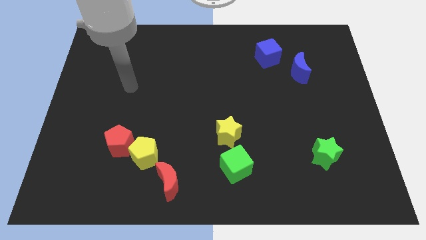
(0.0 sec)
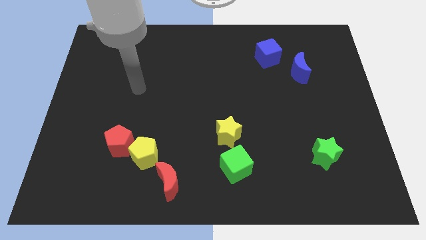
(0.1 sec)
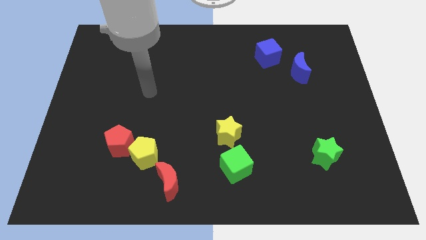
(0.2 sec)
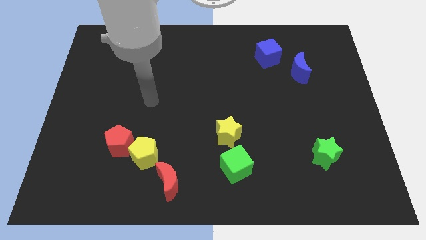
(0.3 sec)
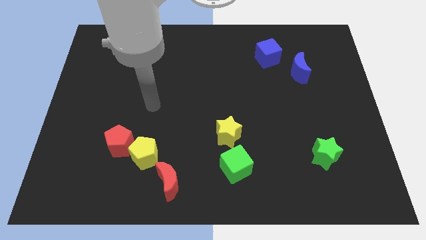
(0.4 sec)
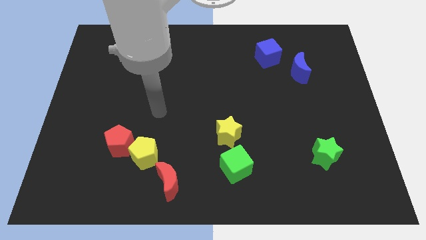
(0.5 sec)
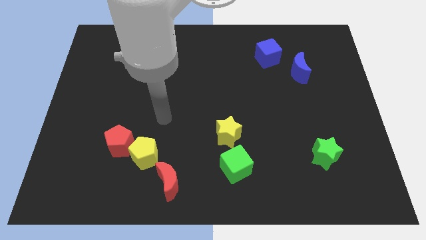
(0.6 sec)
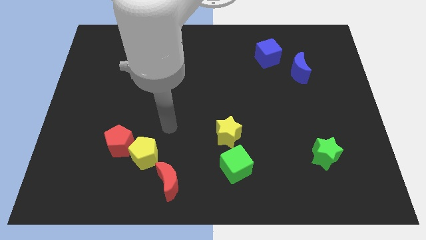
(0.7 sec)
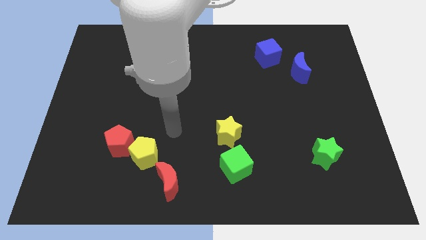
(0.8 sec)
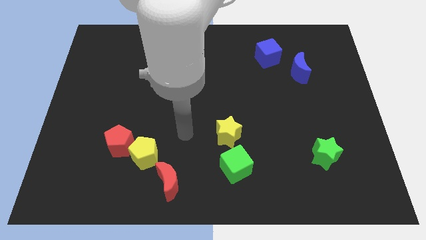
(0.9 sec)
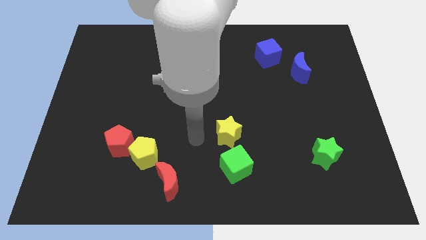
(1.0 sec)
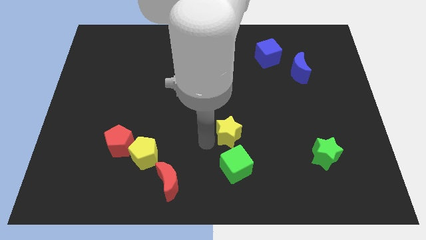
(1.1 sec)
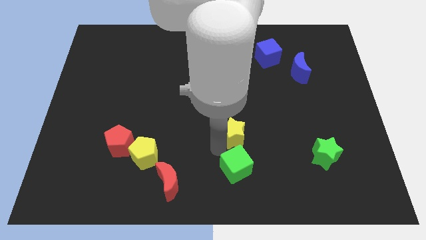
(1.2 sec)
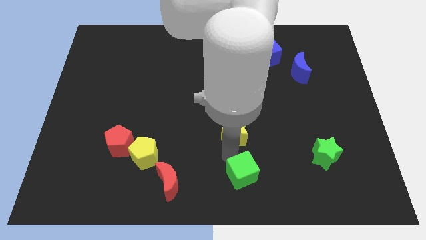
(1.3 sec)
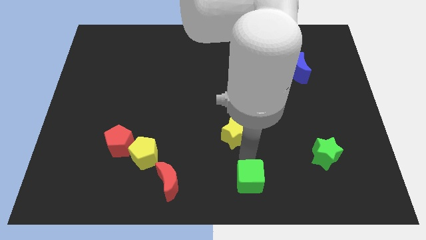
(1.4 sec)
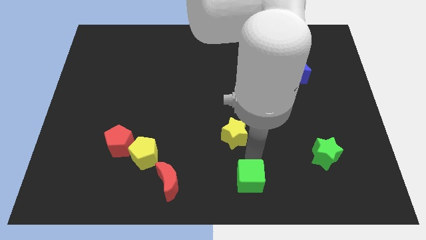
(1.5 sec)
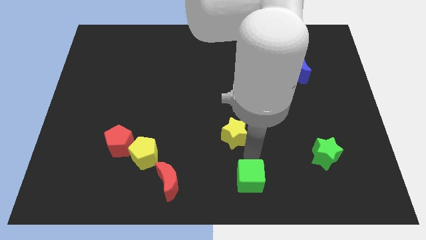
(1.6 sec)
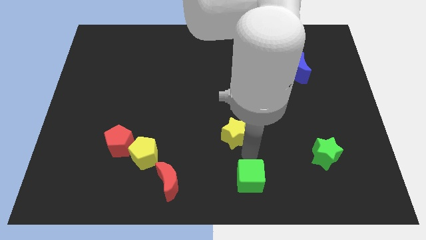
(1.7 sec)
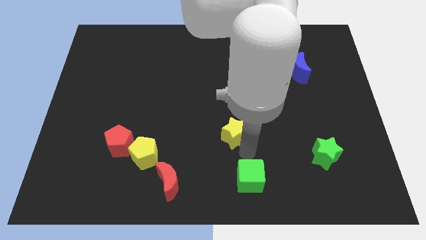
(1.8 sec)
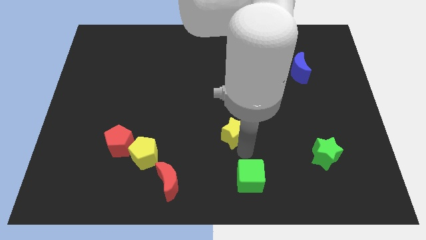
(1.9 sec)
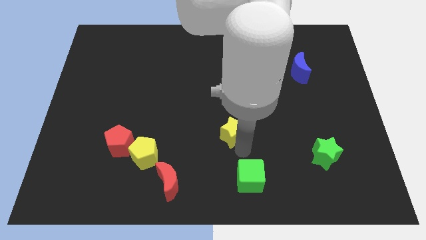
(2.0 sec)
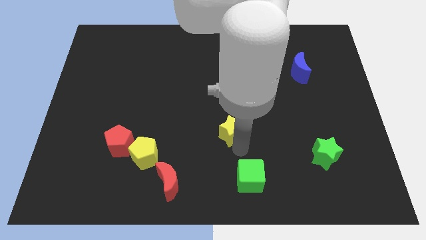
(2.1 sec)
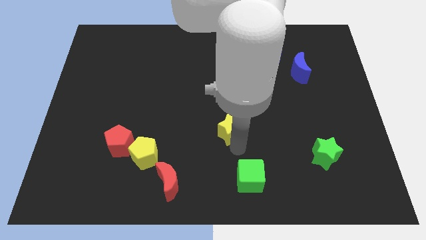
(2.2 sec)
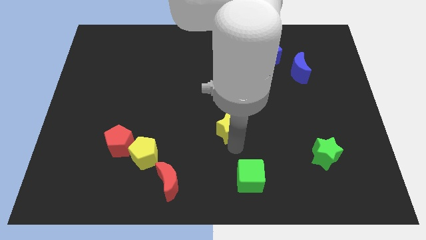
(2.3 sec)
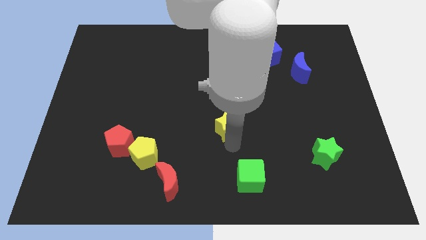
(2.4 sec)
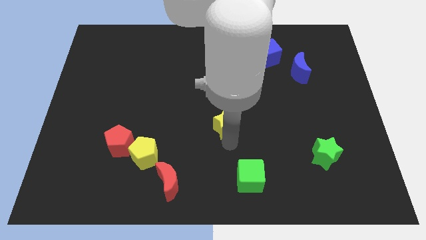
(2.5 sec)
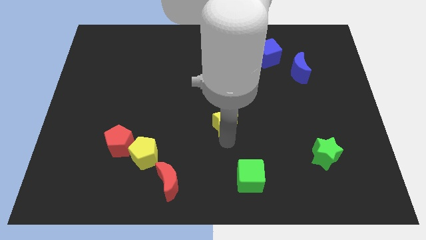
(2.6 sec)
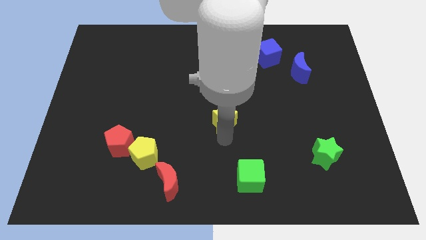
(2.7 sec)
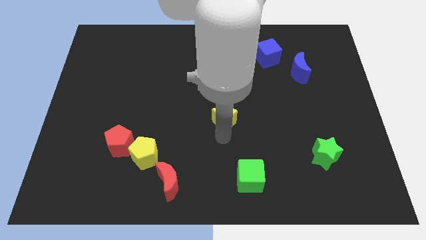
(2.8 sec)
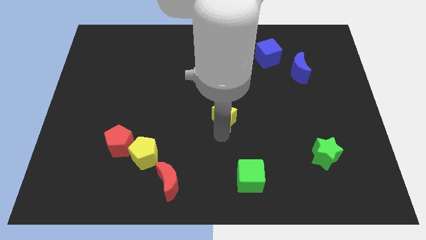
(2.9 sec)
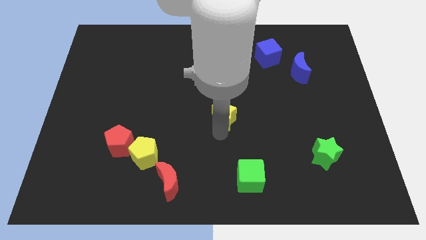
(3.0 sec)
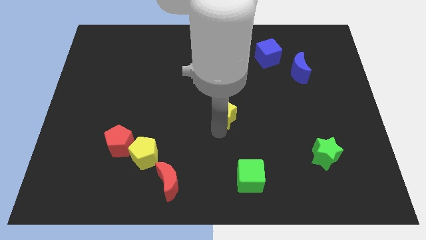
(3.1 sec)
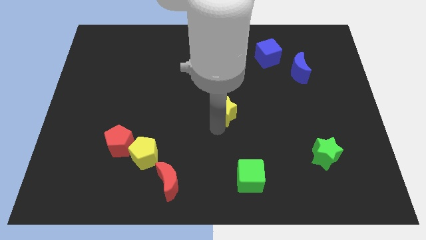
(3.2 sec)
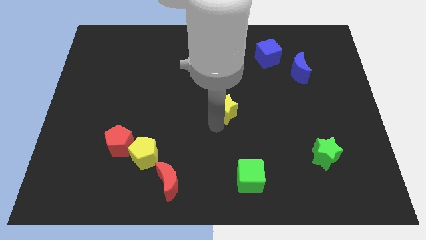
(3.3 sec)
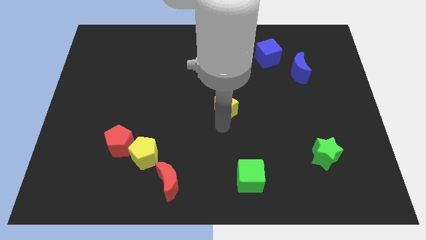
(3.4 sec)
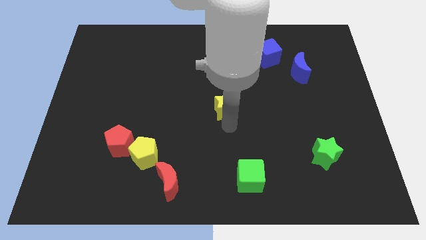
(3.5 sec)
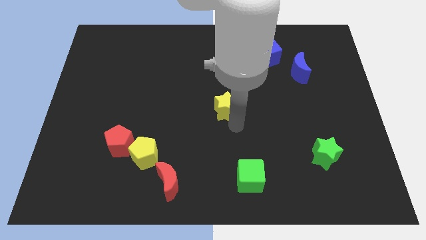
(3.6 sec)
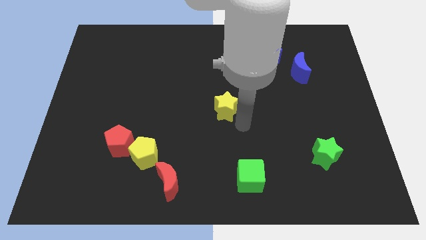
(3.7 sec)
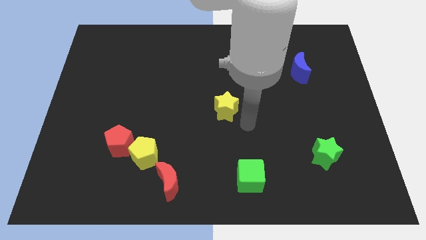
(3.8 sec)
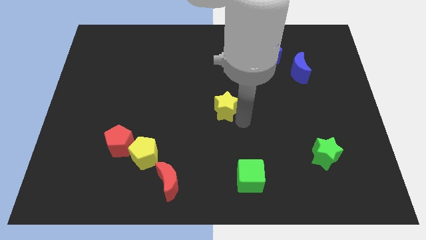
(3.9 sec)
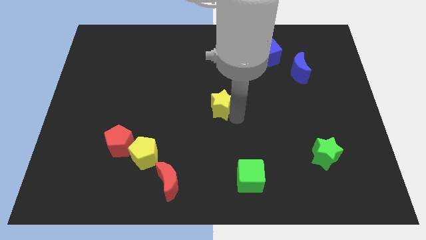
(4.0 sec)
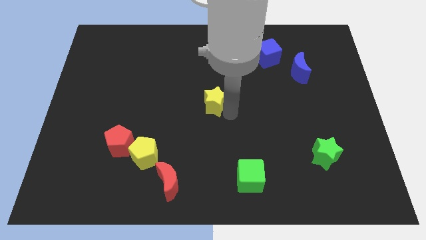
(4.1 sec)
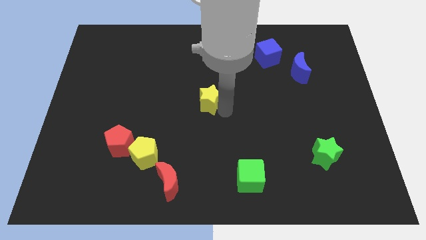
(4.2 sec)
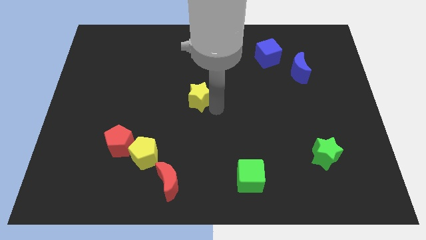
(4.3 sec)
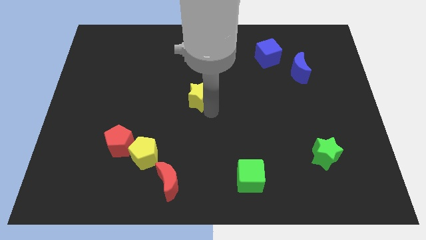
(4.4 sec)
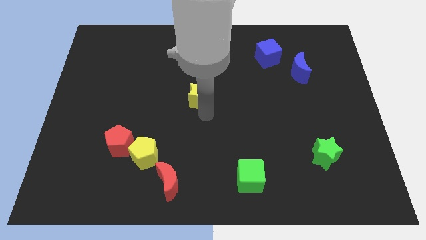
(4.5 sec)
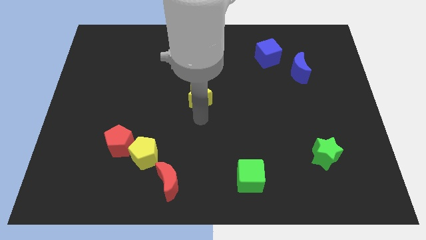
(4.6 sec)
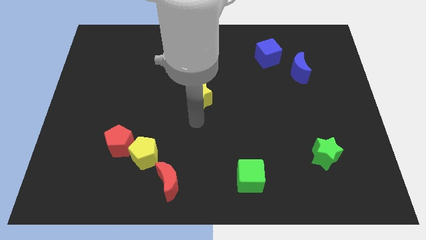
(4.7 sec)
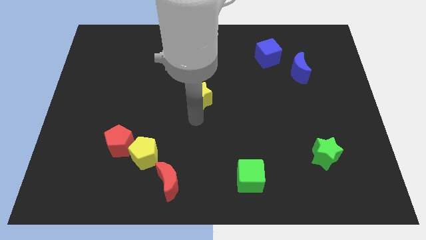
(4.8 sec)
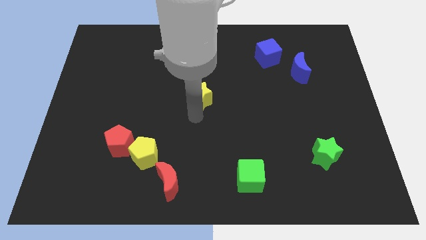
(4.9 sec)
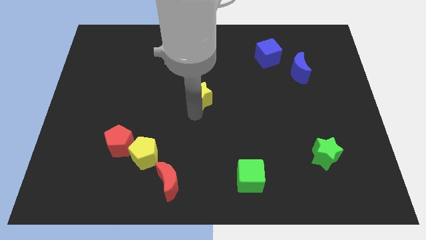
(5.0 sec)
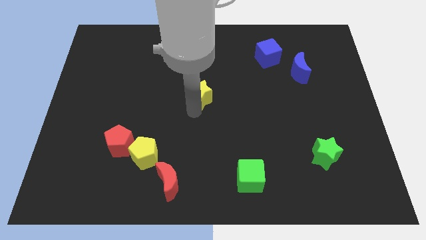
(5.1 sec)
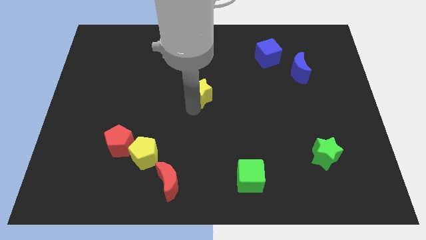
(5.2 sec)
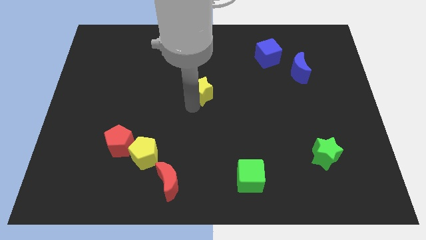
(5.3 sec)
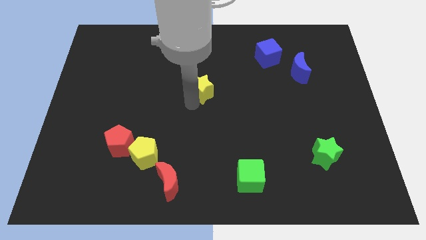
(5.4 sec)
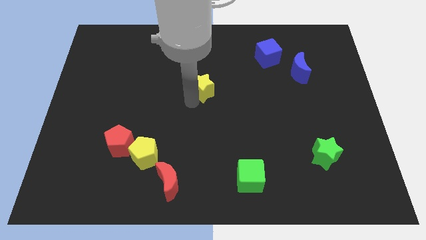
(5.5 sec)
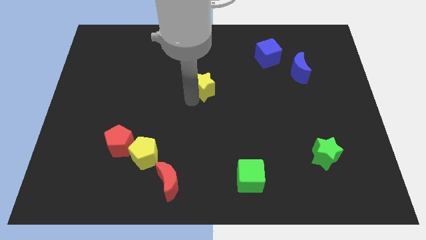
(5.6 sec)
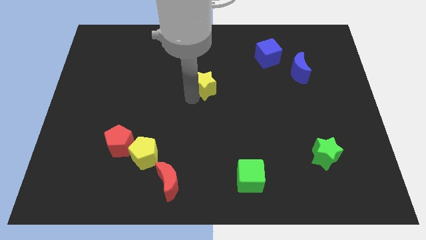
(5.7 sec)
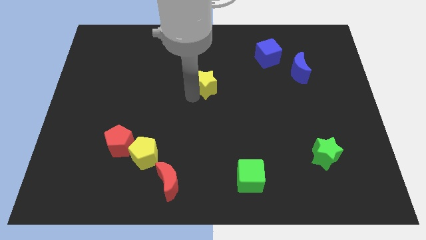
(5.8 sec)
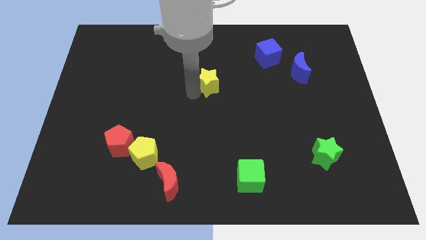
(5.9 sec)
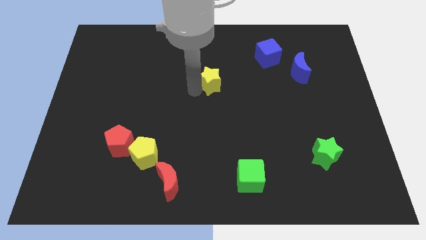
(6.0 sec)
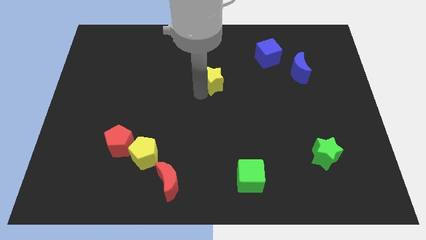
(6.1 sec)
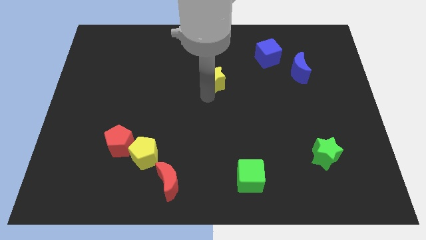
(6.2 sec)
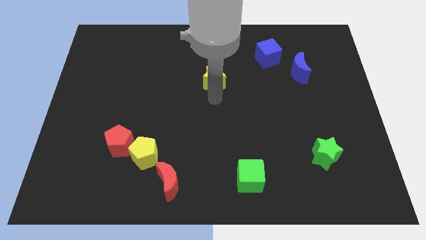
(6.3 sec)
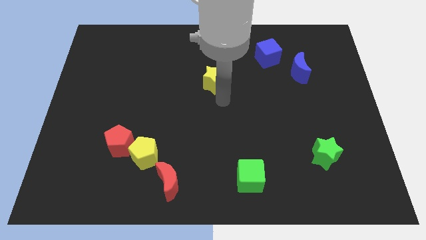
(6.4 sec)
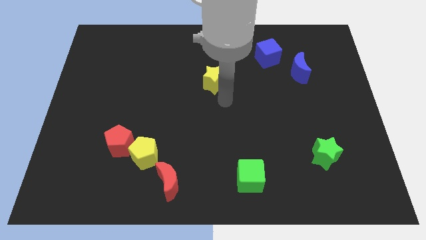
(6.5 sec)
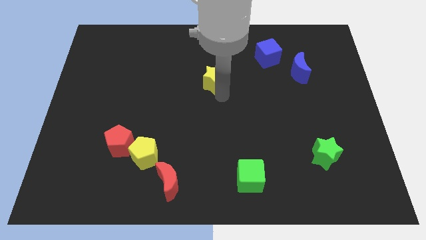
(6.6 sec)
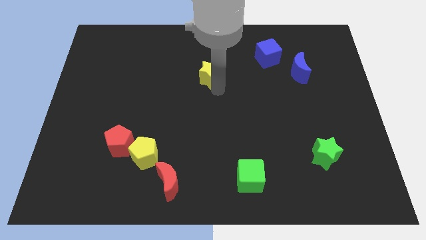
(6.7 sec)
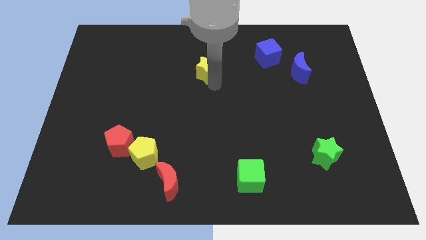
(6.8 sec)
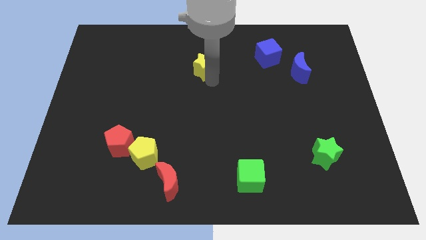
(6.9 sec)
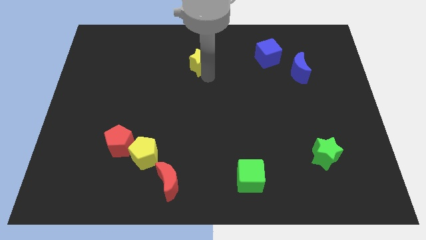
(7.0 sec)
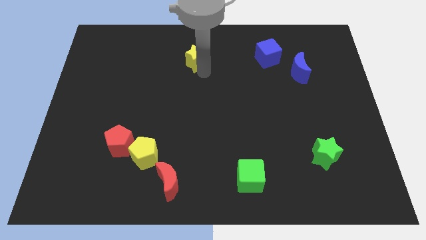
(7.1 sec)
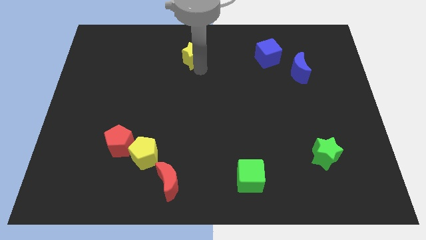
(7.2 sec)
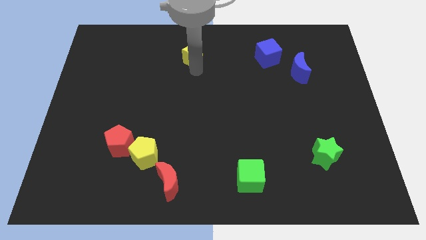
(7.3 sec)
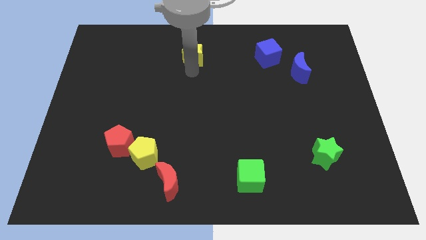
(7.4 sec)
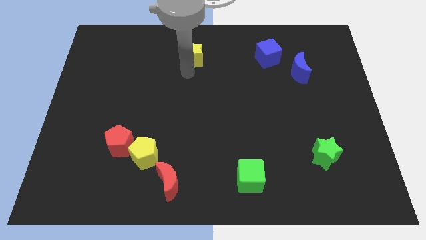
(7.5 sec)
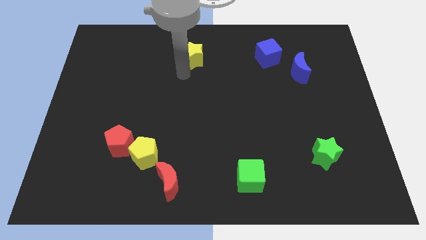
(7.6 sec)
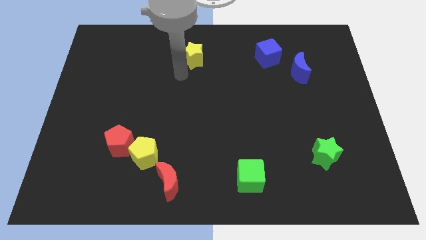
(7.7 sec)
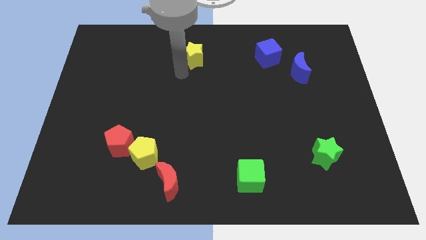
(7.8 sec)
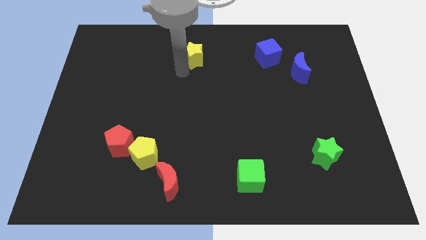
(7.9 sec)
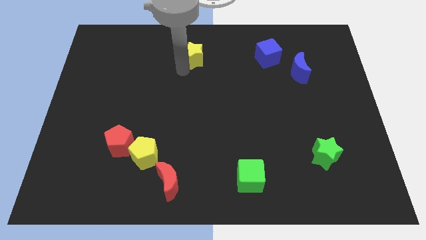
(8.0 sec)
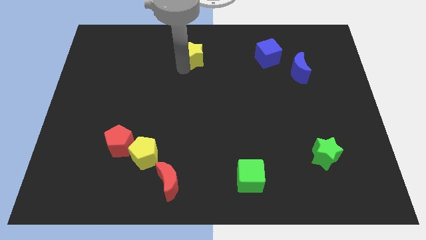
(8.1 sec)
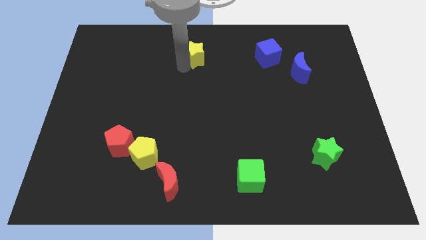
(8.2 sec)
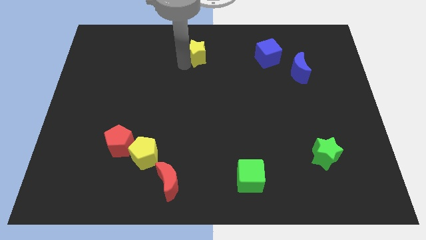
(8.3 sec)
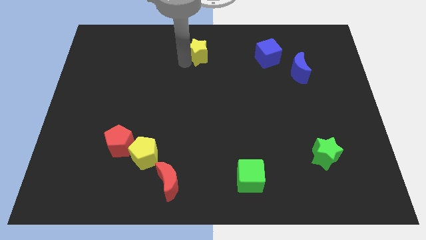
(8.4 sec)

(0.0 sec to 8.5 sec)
push the yellow star to the top
